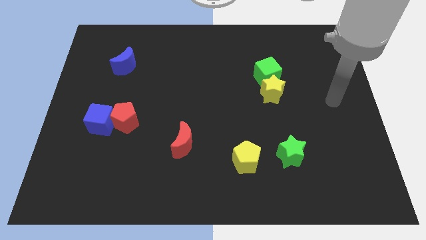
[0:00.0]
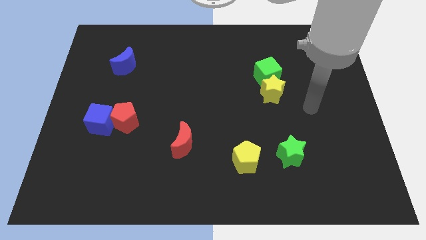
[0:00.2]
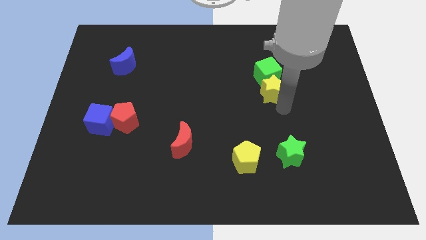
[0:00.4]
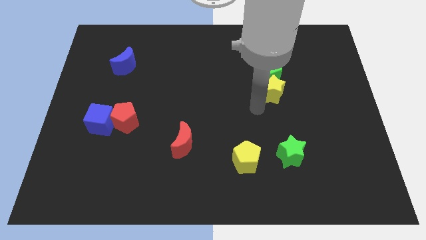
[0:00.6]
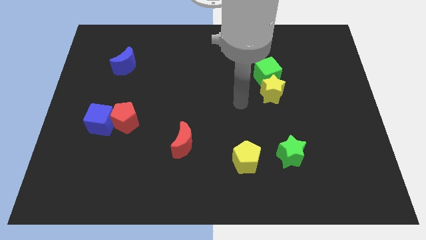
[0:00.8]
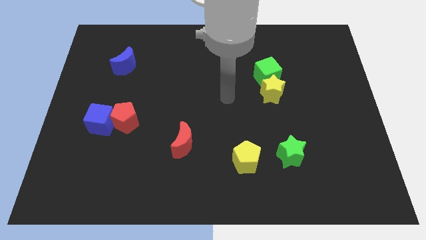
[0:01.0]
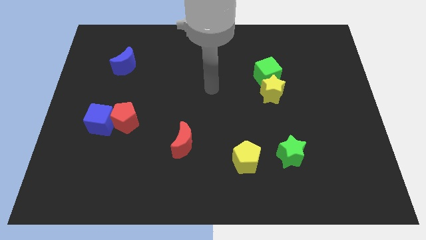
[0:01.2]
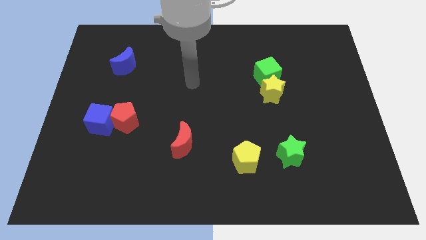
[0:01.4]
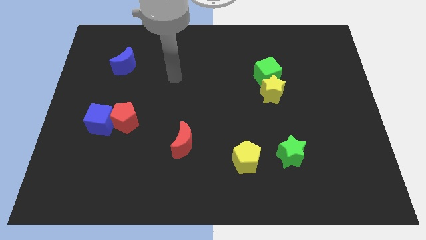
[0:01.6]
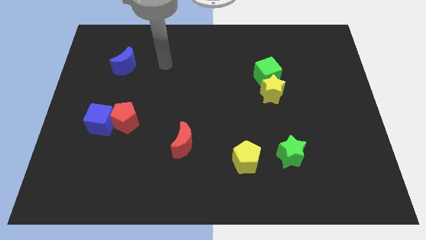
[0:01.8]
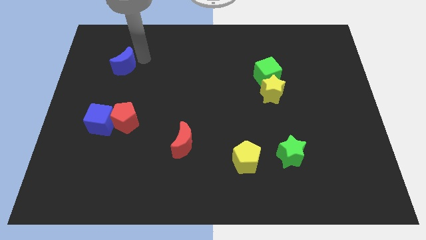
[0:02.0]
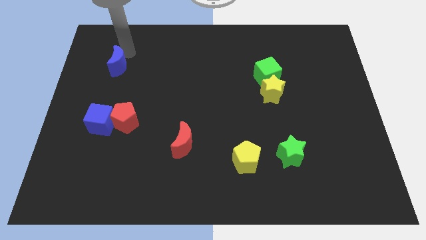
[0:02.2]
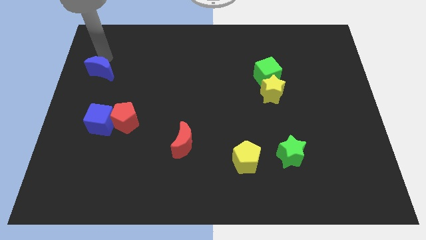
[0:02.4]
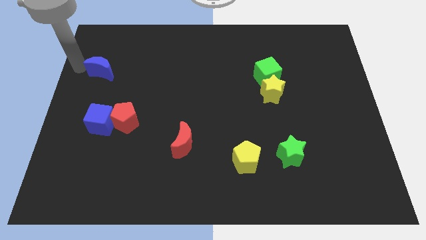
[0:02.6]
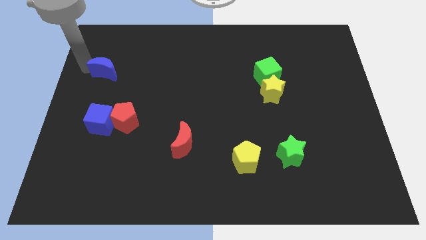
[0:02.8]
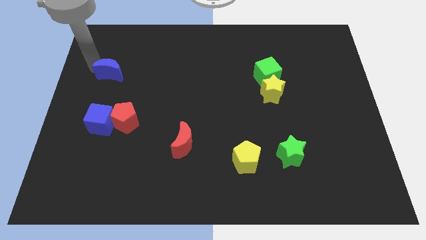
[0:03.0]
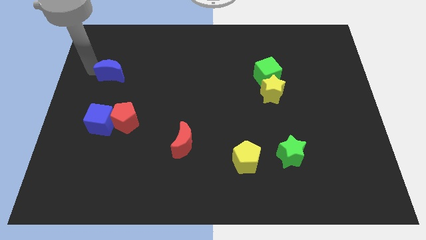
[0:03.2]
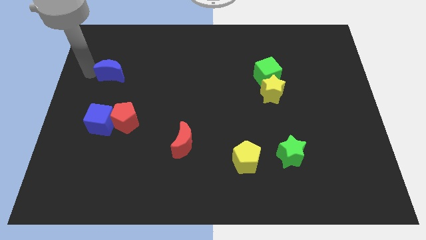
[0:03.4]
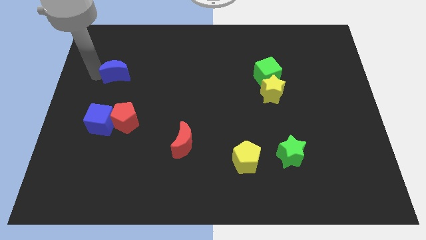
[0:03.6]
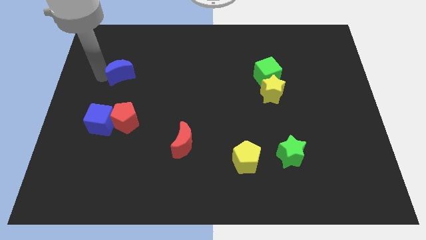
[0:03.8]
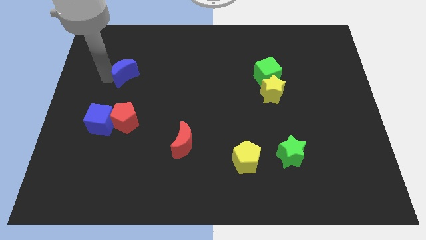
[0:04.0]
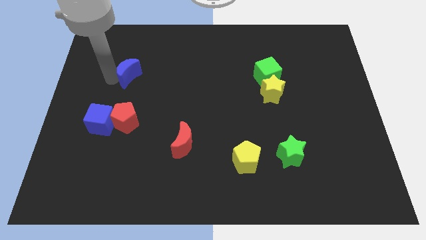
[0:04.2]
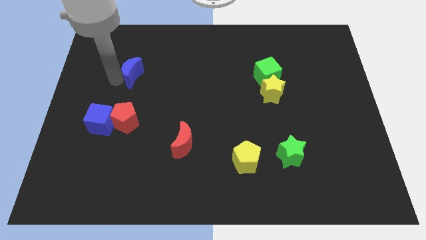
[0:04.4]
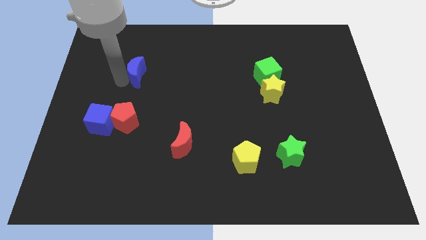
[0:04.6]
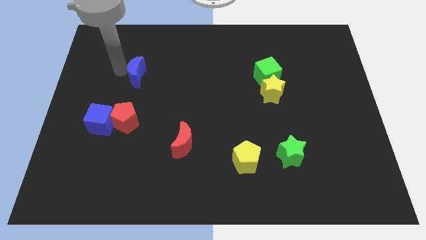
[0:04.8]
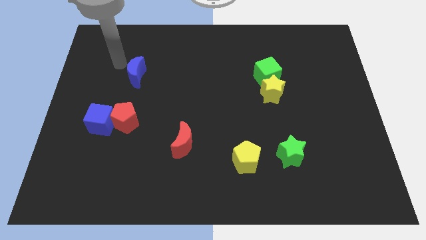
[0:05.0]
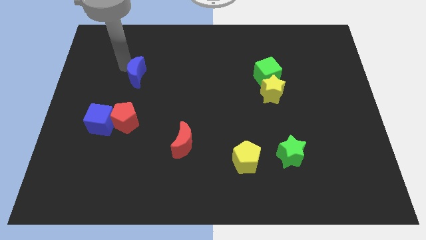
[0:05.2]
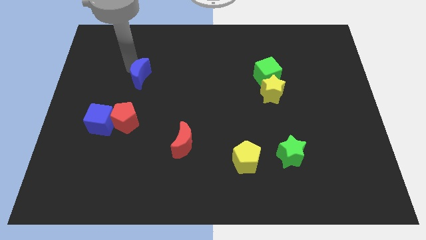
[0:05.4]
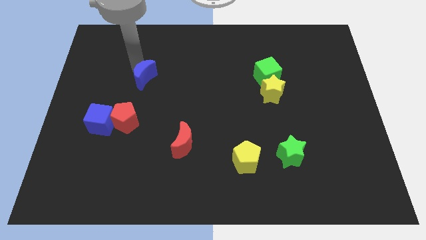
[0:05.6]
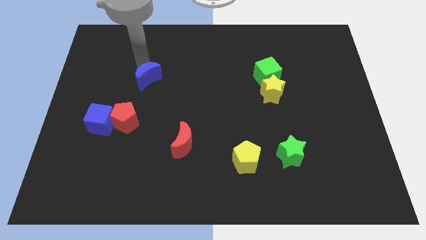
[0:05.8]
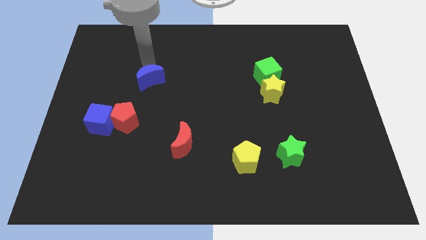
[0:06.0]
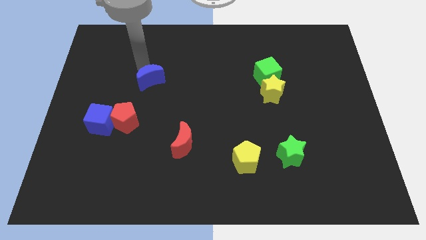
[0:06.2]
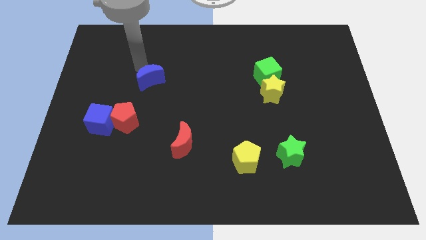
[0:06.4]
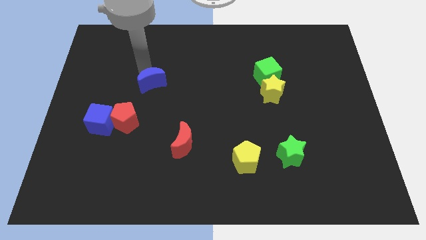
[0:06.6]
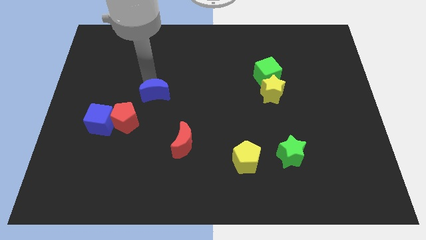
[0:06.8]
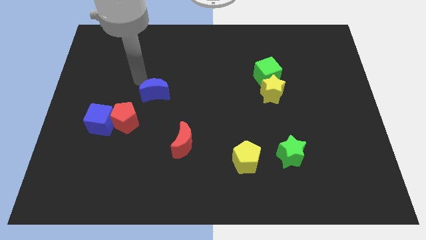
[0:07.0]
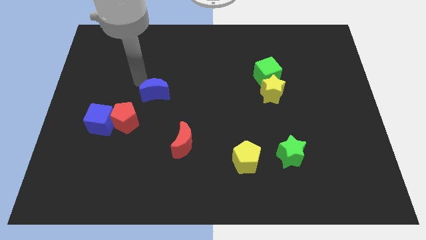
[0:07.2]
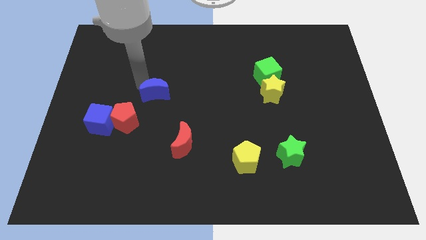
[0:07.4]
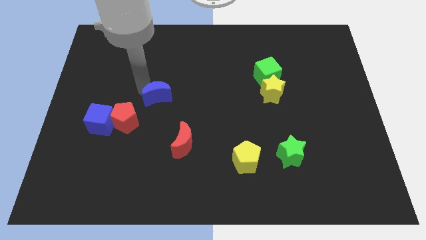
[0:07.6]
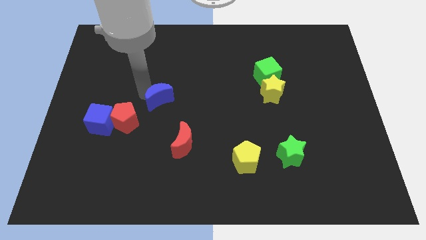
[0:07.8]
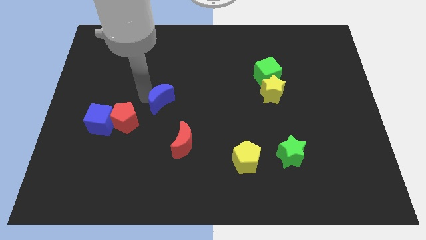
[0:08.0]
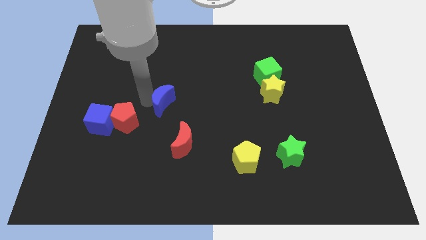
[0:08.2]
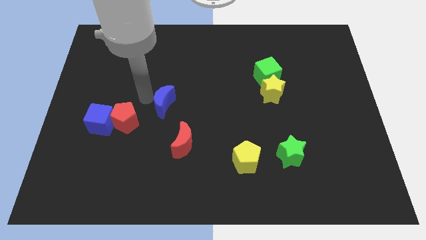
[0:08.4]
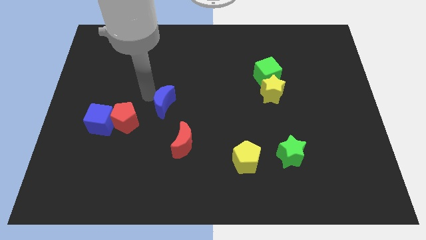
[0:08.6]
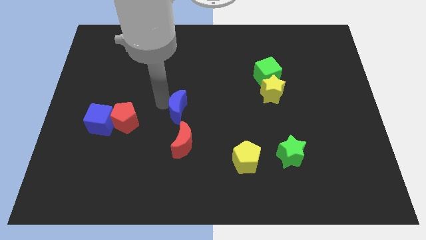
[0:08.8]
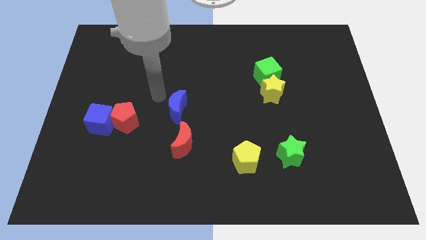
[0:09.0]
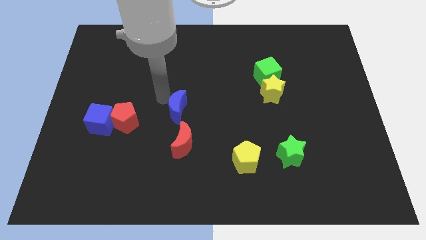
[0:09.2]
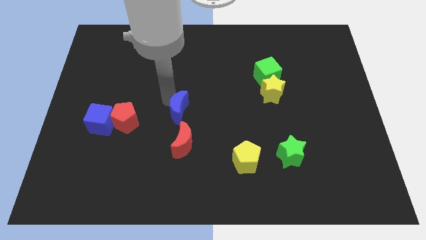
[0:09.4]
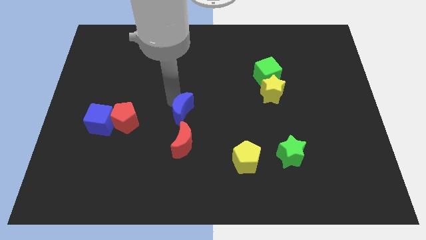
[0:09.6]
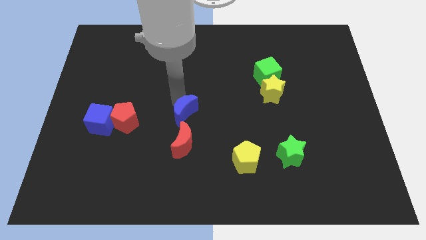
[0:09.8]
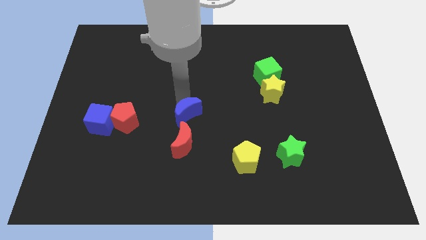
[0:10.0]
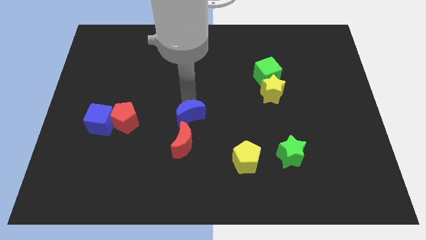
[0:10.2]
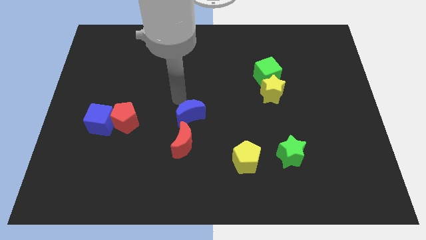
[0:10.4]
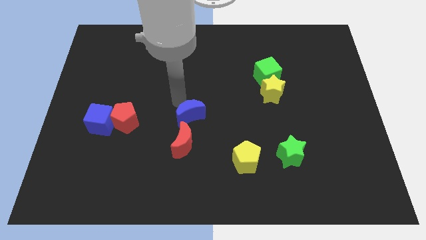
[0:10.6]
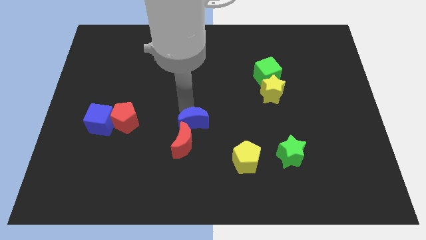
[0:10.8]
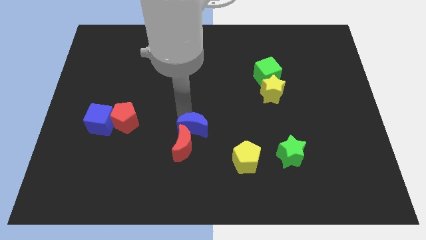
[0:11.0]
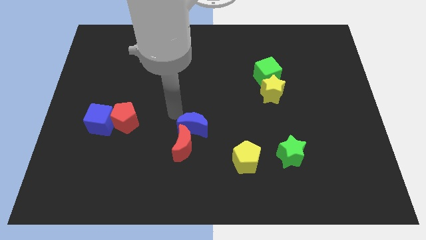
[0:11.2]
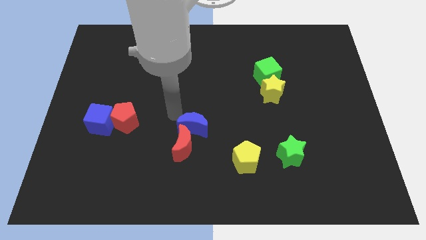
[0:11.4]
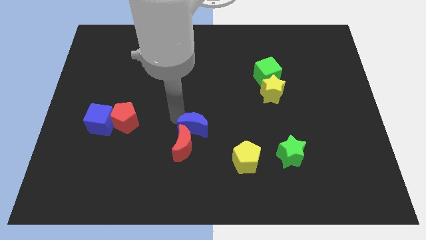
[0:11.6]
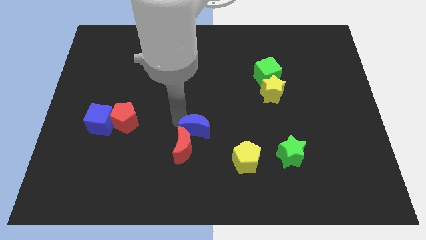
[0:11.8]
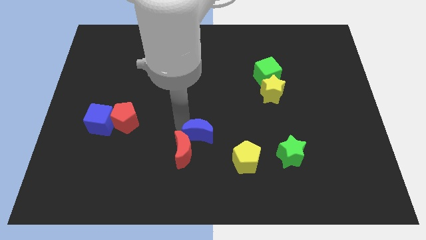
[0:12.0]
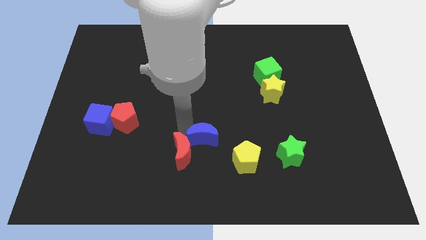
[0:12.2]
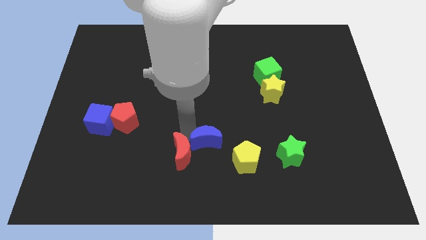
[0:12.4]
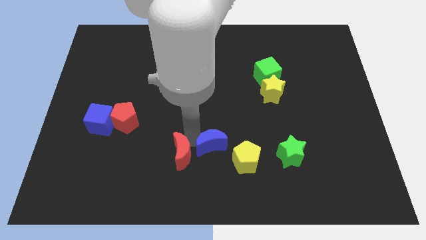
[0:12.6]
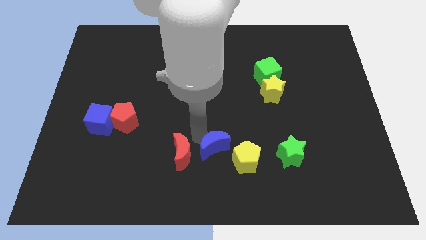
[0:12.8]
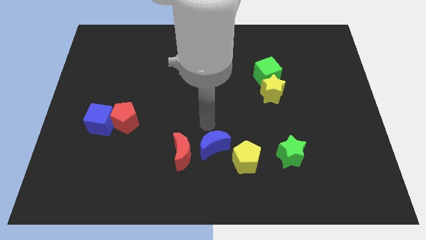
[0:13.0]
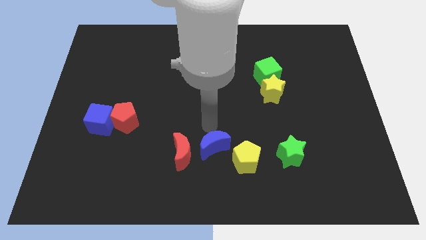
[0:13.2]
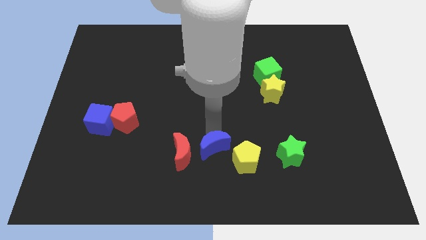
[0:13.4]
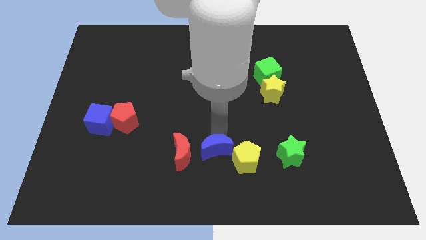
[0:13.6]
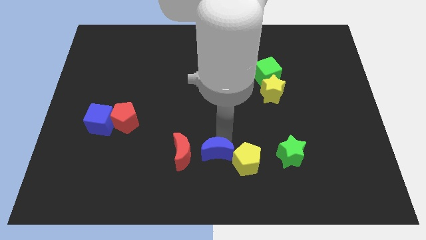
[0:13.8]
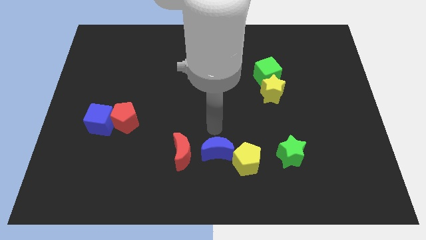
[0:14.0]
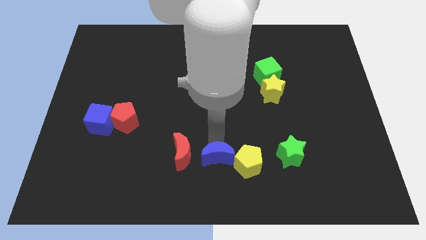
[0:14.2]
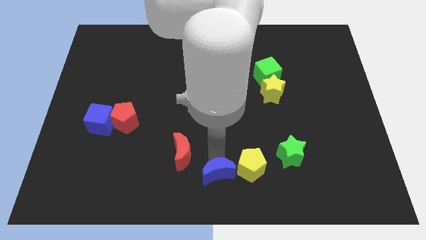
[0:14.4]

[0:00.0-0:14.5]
slide the blue moon diagonally down and to the left of the yellow pentagon
